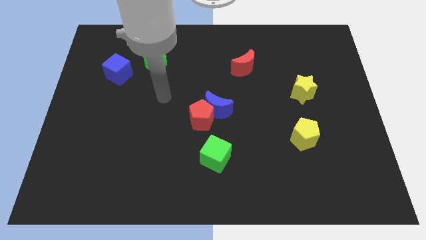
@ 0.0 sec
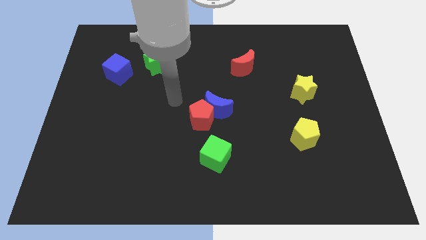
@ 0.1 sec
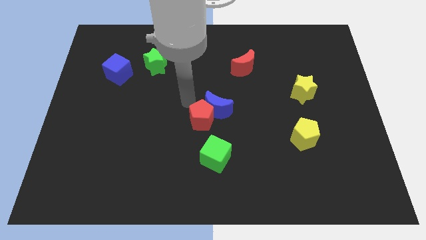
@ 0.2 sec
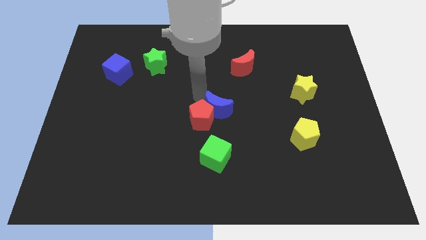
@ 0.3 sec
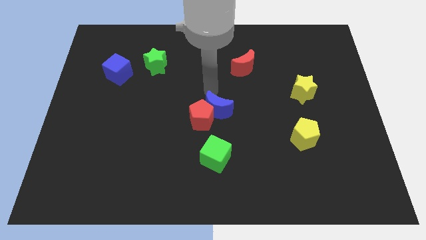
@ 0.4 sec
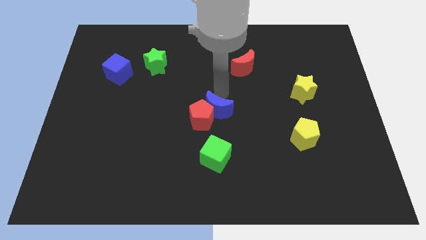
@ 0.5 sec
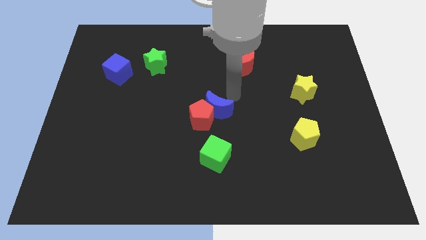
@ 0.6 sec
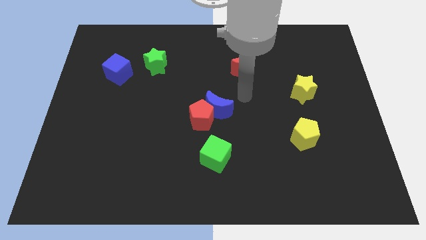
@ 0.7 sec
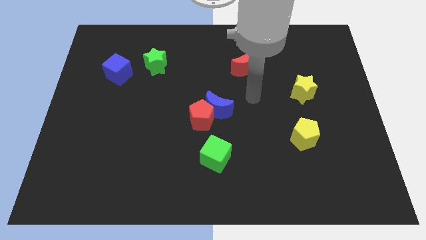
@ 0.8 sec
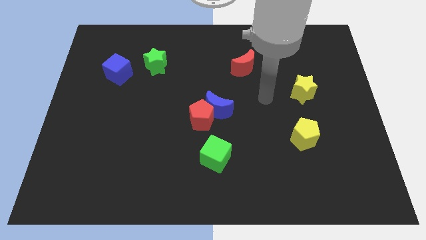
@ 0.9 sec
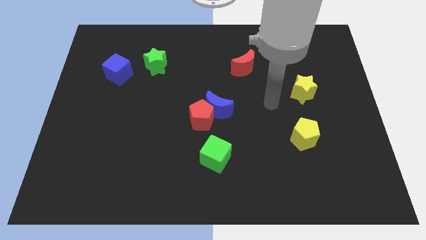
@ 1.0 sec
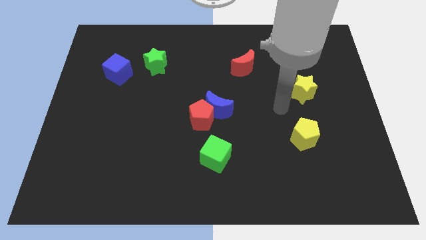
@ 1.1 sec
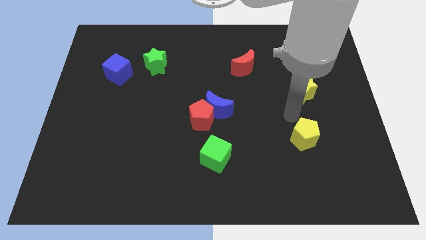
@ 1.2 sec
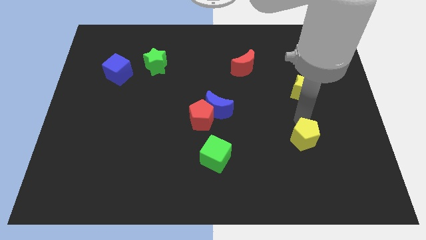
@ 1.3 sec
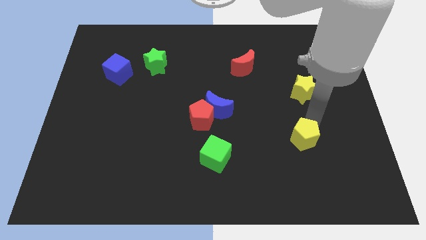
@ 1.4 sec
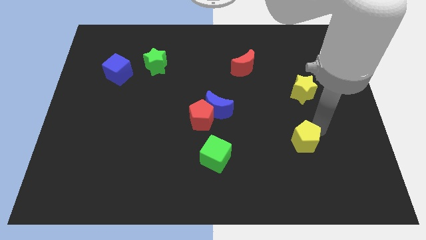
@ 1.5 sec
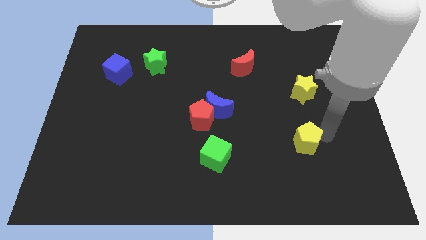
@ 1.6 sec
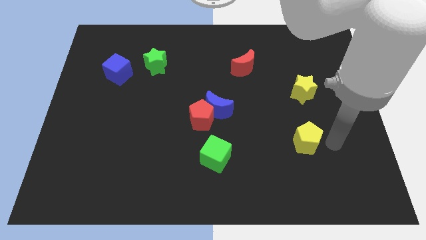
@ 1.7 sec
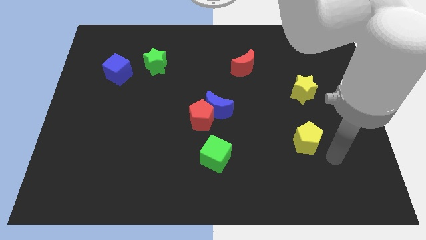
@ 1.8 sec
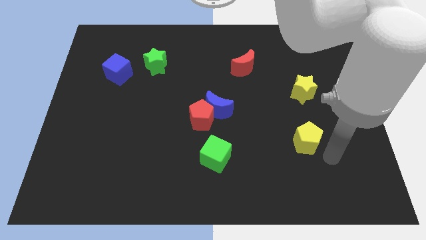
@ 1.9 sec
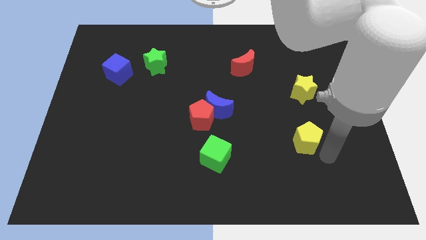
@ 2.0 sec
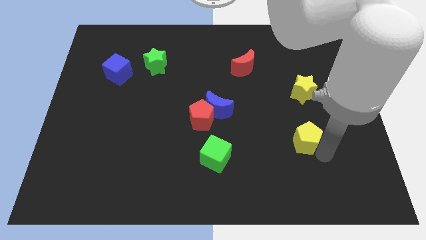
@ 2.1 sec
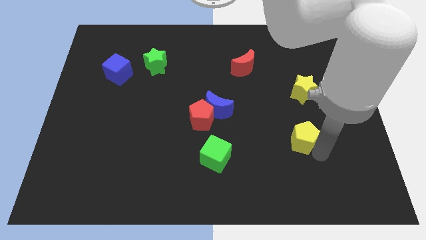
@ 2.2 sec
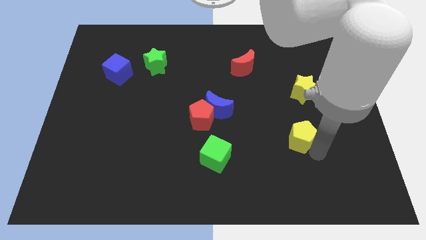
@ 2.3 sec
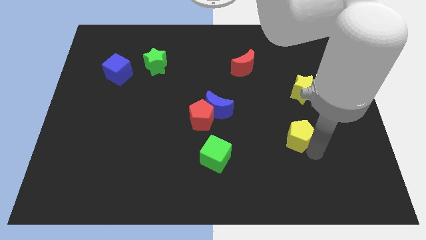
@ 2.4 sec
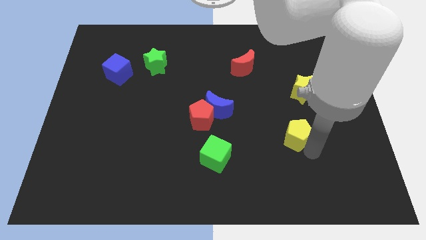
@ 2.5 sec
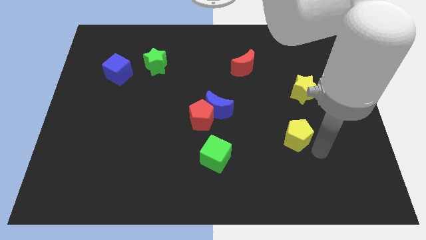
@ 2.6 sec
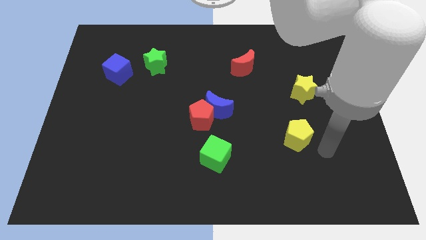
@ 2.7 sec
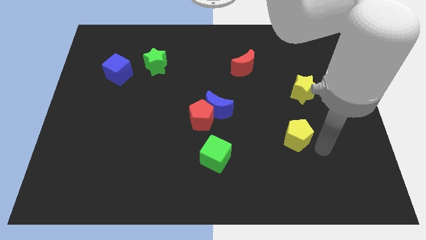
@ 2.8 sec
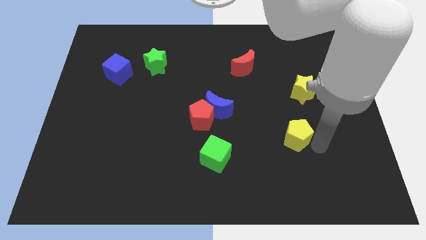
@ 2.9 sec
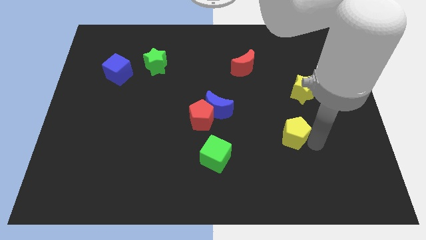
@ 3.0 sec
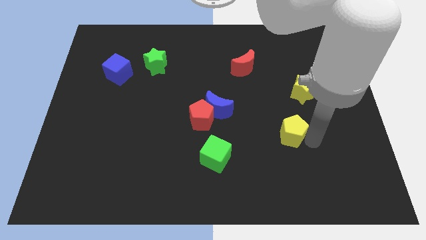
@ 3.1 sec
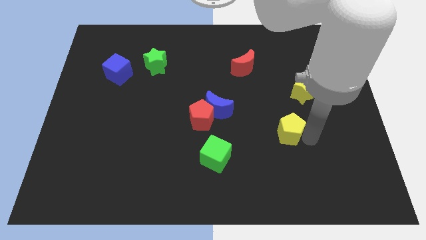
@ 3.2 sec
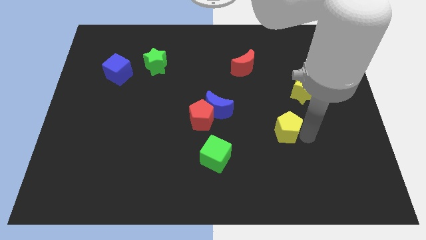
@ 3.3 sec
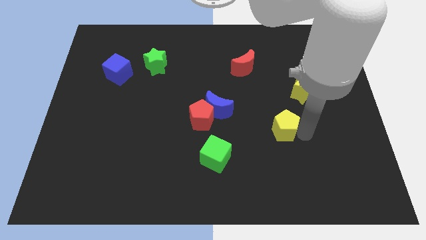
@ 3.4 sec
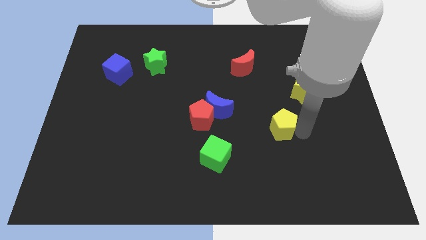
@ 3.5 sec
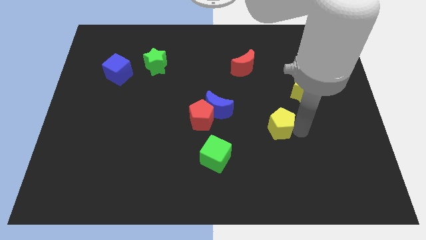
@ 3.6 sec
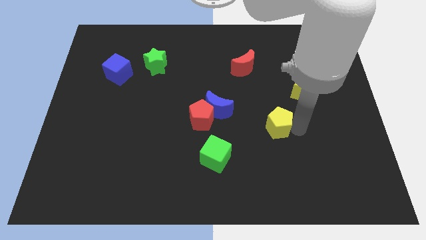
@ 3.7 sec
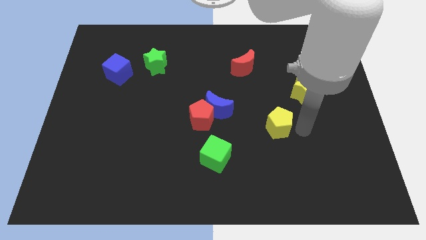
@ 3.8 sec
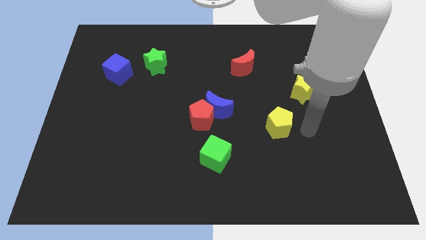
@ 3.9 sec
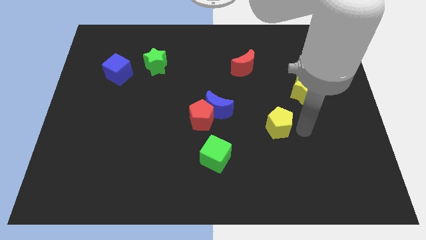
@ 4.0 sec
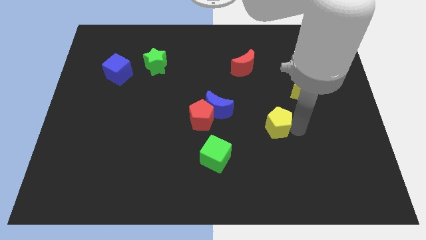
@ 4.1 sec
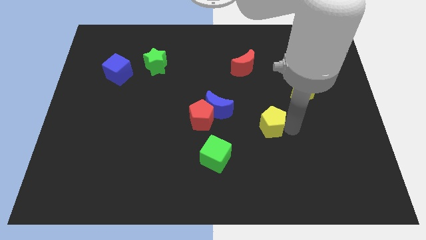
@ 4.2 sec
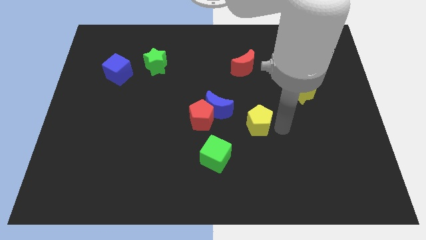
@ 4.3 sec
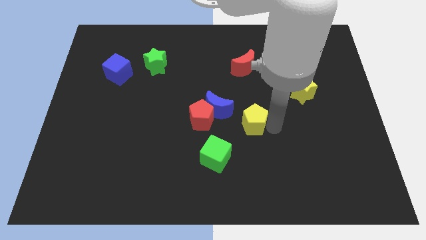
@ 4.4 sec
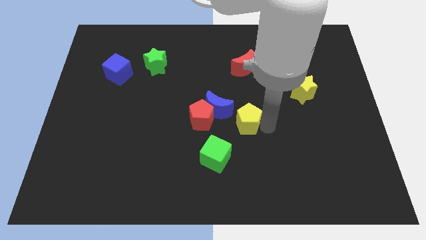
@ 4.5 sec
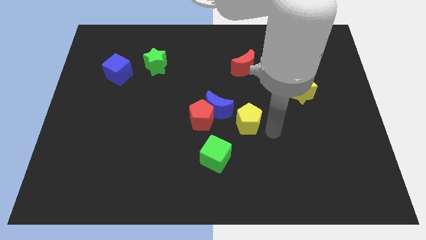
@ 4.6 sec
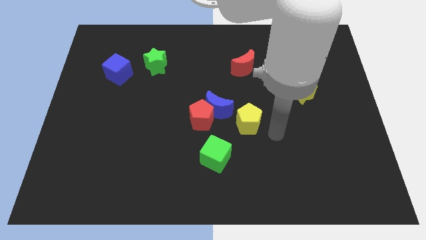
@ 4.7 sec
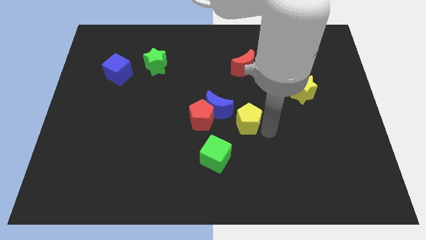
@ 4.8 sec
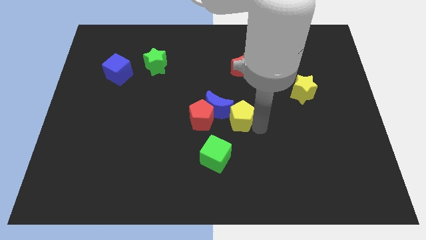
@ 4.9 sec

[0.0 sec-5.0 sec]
push the yellow pentagon next to the blue moon

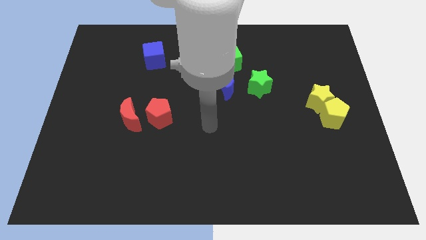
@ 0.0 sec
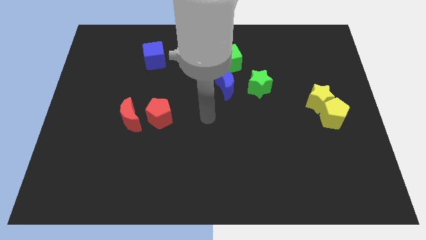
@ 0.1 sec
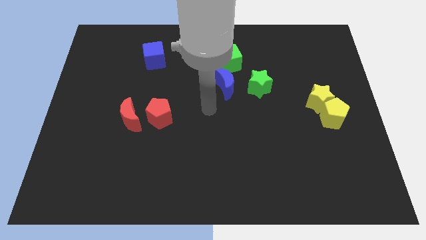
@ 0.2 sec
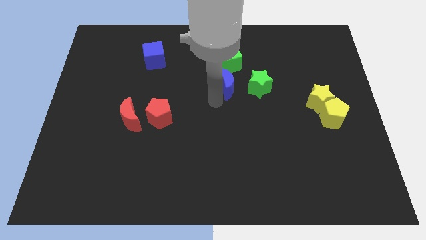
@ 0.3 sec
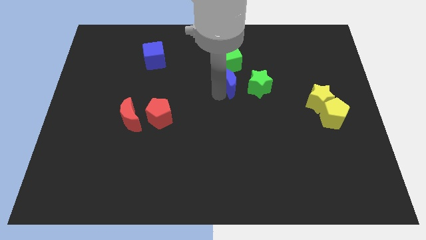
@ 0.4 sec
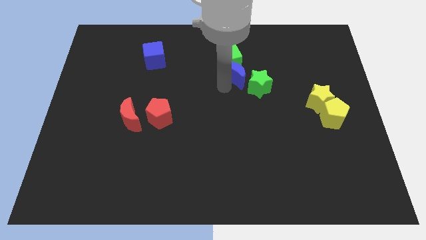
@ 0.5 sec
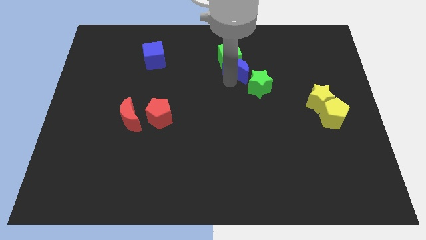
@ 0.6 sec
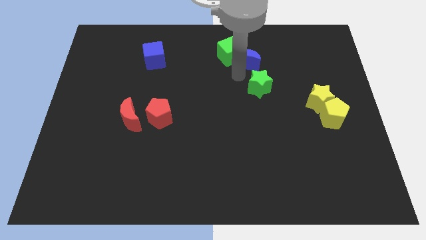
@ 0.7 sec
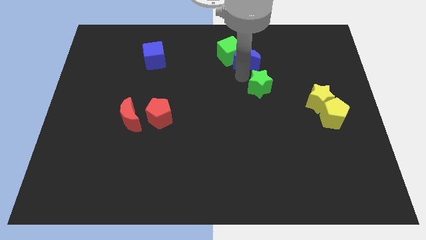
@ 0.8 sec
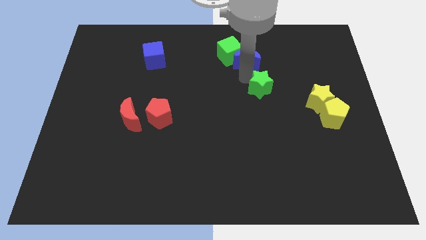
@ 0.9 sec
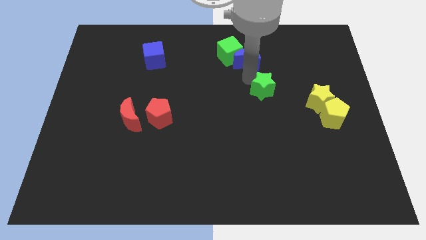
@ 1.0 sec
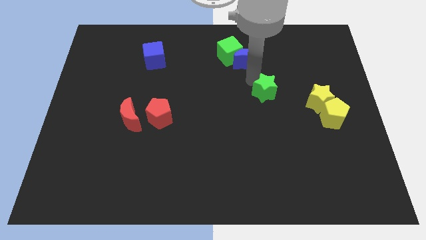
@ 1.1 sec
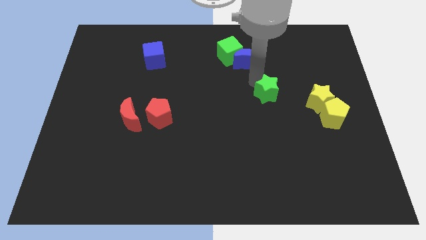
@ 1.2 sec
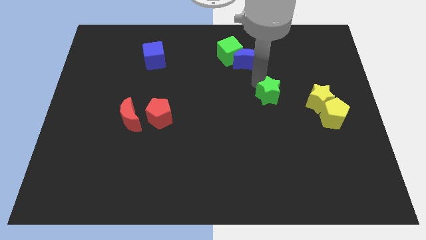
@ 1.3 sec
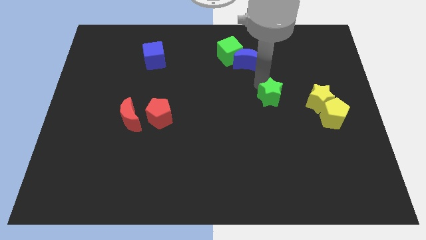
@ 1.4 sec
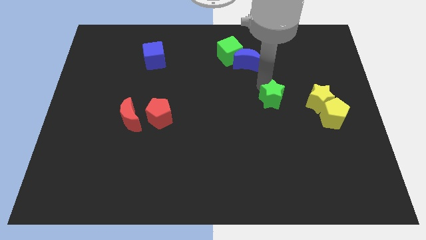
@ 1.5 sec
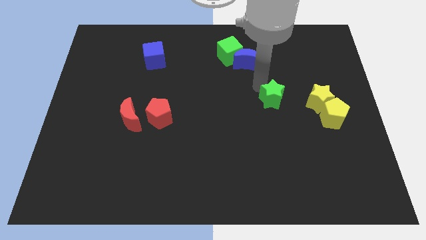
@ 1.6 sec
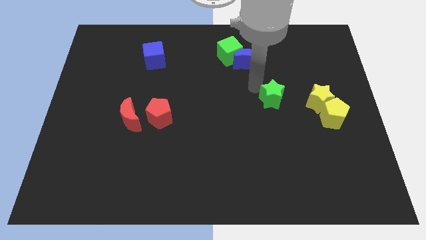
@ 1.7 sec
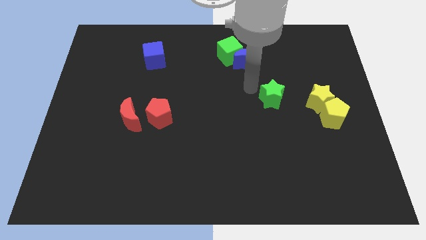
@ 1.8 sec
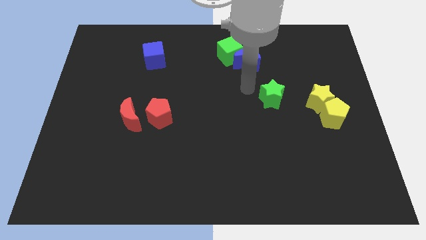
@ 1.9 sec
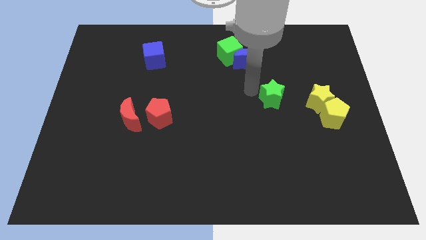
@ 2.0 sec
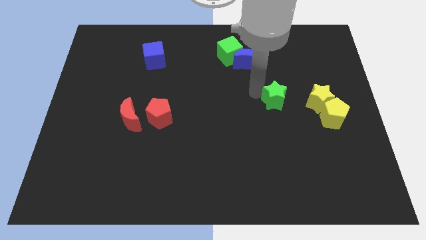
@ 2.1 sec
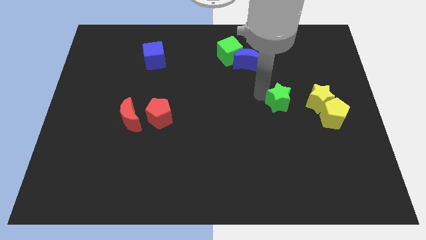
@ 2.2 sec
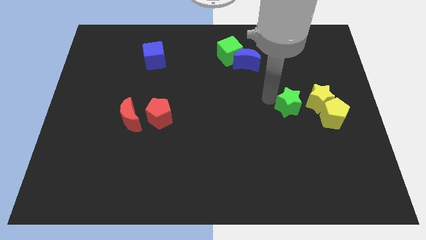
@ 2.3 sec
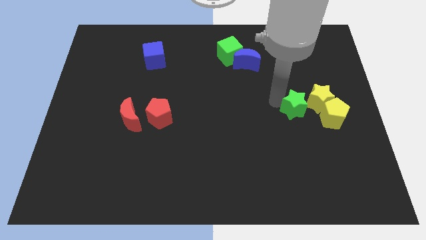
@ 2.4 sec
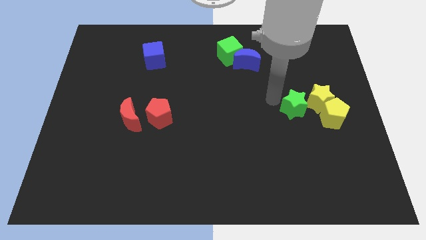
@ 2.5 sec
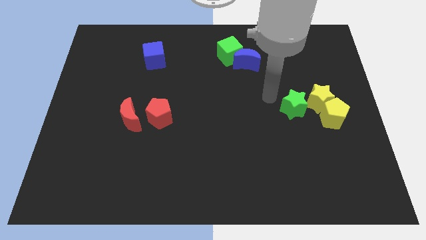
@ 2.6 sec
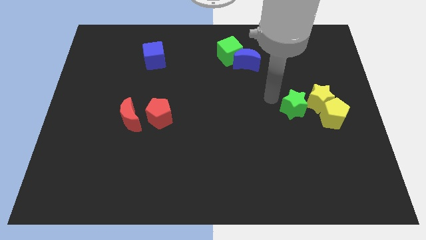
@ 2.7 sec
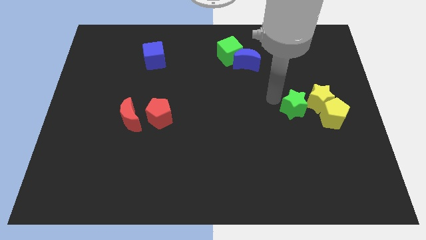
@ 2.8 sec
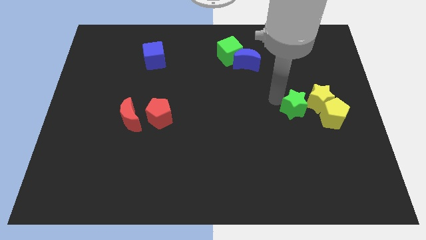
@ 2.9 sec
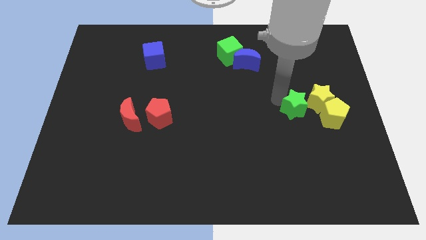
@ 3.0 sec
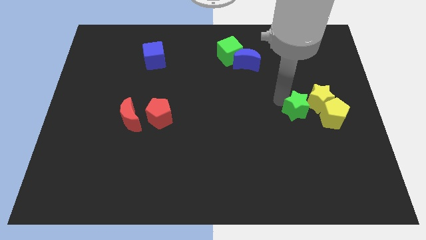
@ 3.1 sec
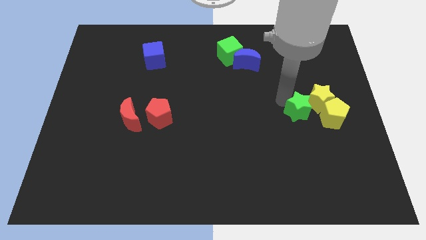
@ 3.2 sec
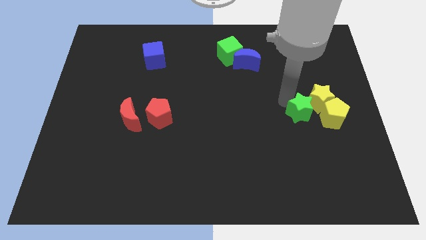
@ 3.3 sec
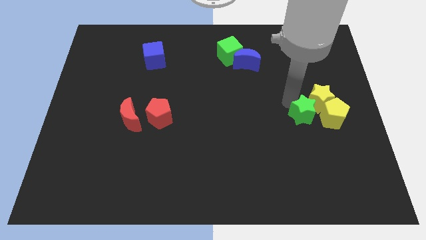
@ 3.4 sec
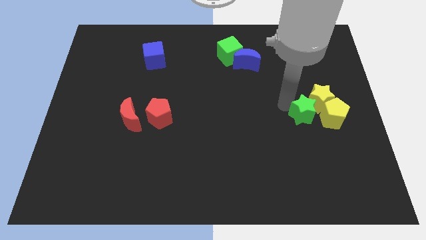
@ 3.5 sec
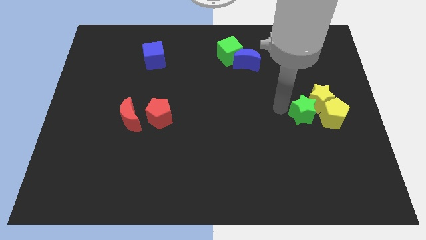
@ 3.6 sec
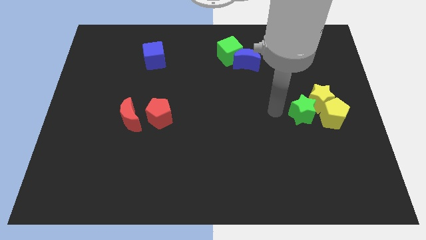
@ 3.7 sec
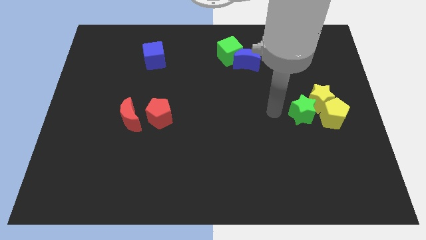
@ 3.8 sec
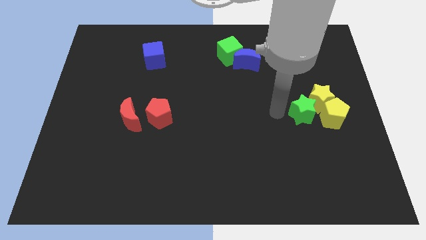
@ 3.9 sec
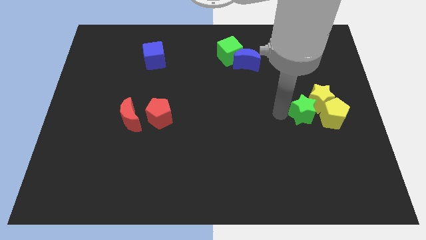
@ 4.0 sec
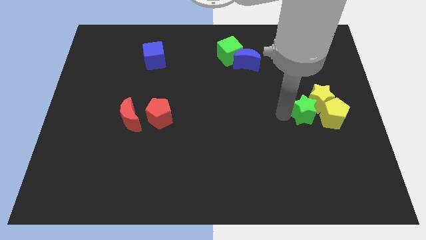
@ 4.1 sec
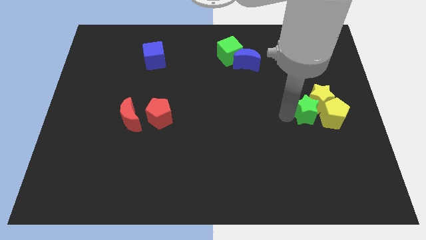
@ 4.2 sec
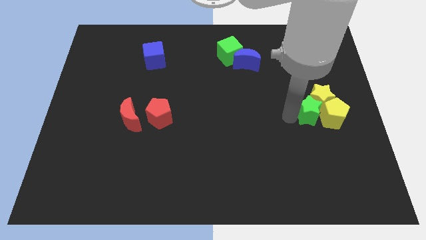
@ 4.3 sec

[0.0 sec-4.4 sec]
push the green star towards the yellow pentagon
